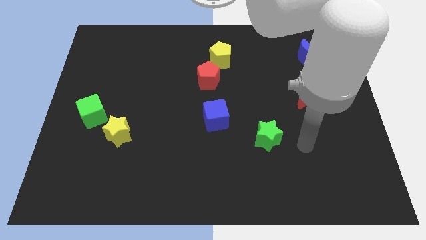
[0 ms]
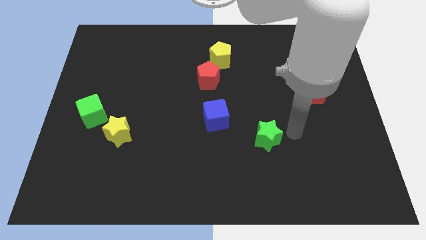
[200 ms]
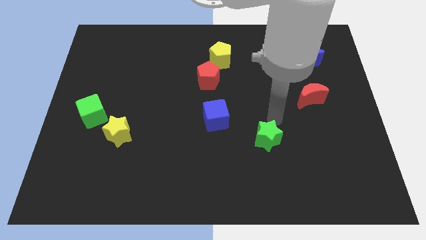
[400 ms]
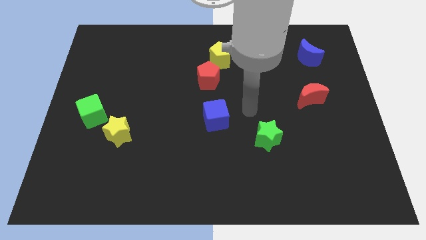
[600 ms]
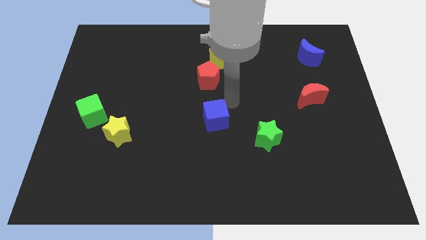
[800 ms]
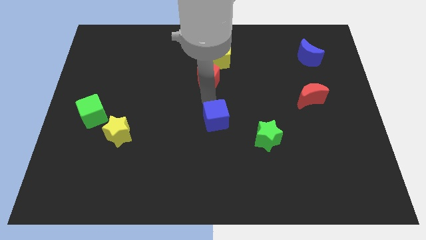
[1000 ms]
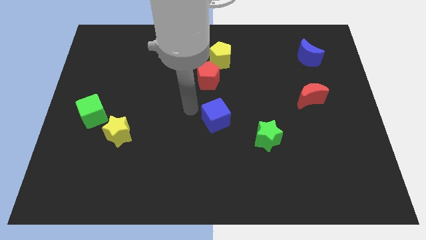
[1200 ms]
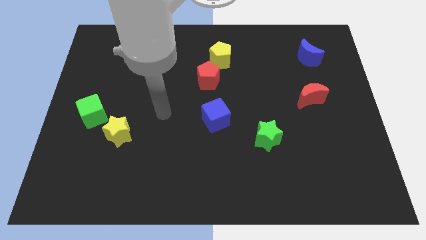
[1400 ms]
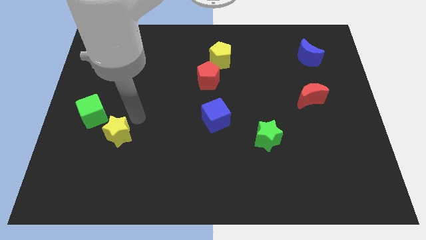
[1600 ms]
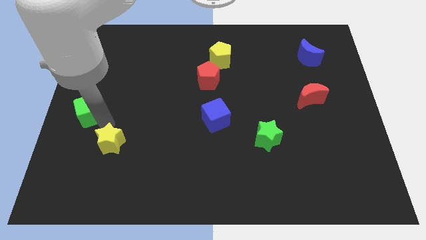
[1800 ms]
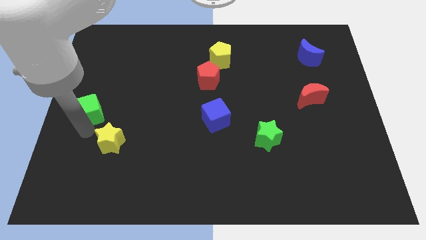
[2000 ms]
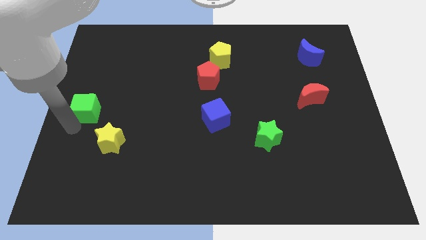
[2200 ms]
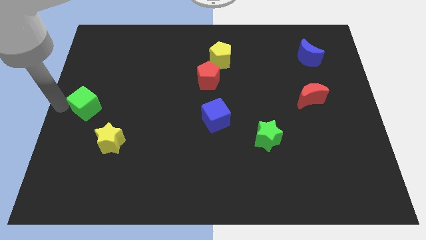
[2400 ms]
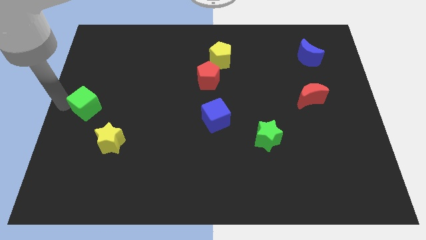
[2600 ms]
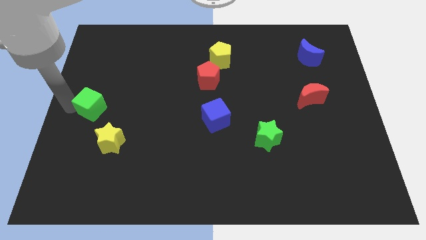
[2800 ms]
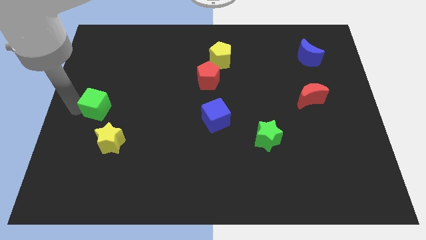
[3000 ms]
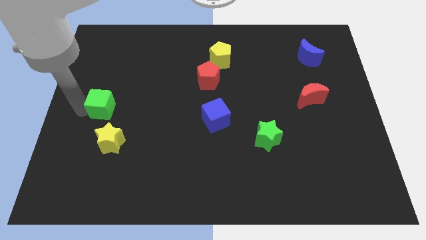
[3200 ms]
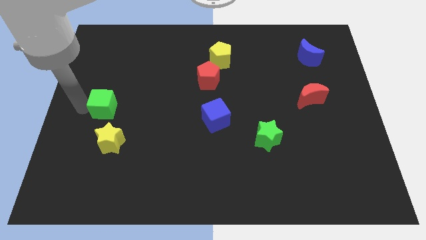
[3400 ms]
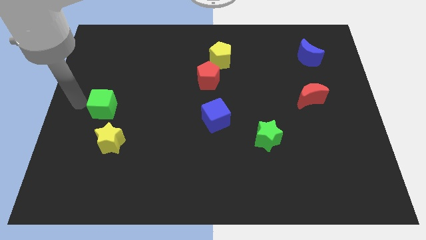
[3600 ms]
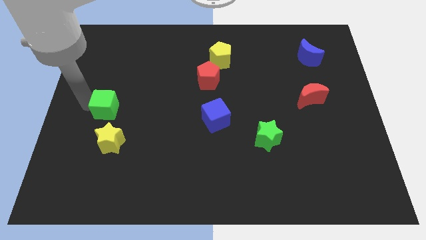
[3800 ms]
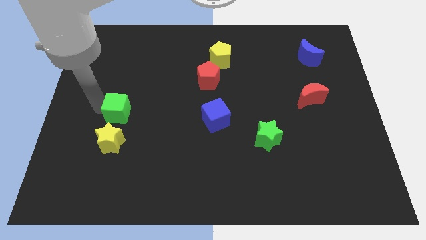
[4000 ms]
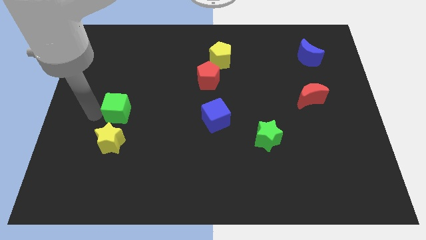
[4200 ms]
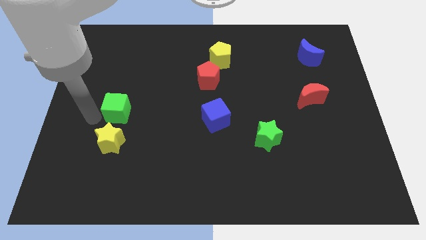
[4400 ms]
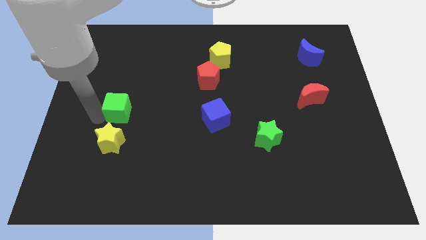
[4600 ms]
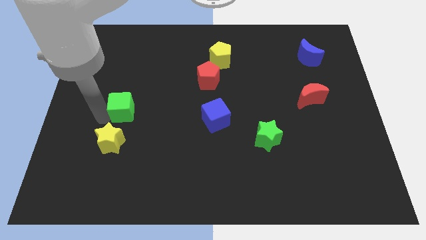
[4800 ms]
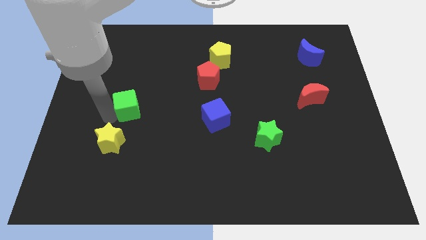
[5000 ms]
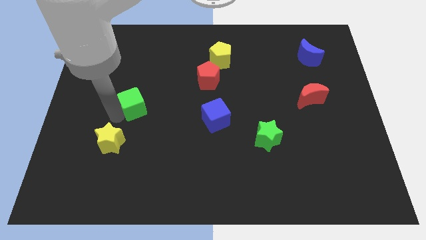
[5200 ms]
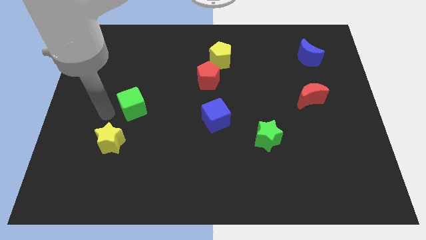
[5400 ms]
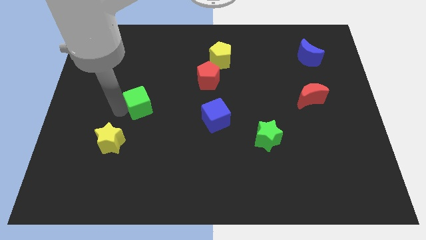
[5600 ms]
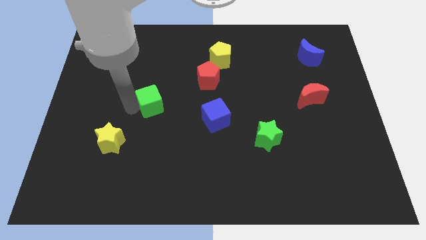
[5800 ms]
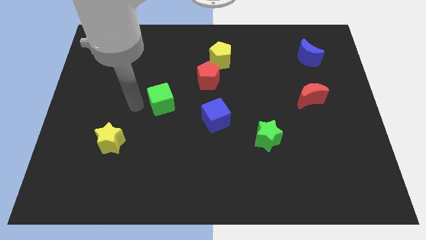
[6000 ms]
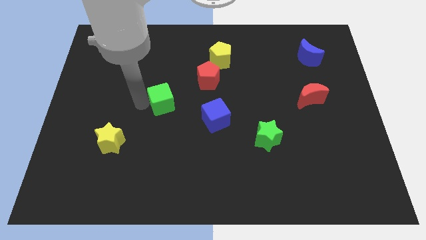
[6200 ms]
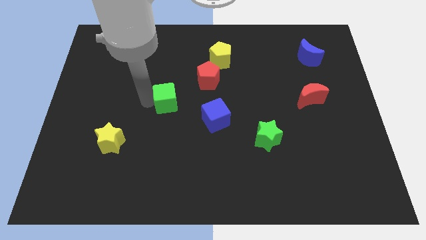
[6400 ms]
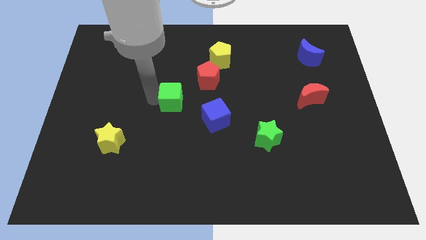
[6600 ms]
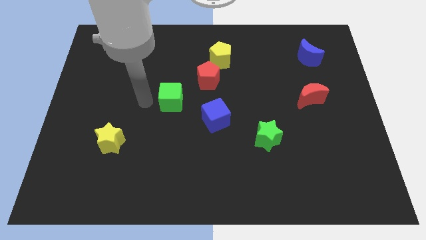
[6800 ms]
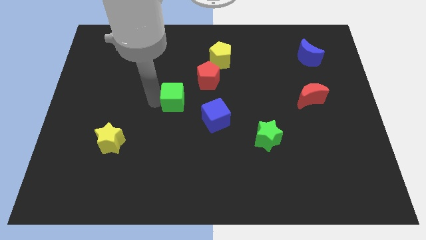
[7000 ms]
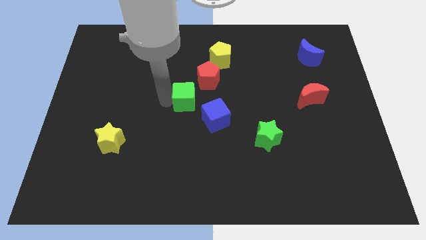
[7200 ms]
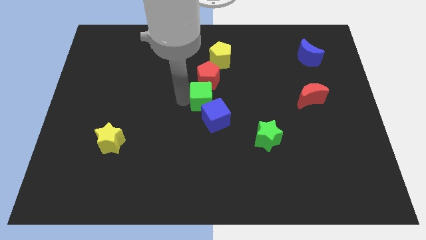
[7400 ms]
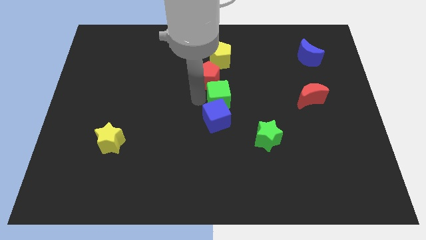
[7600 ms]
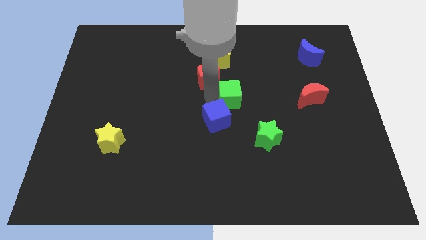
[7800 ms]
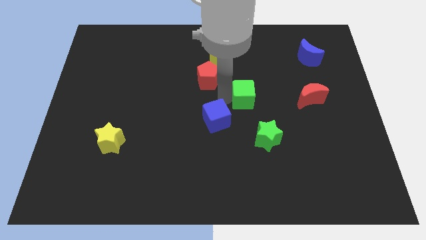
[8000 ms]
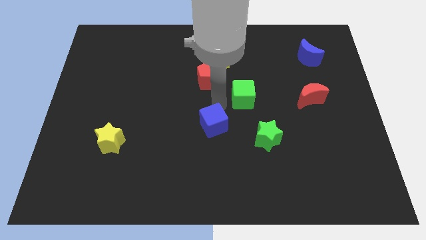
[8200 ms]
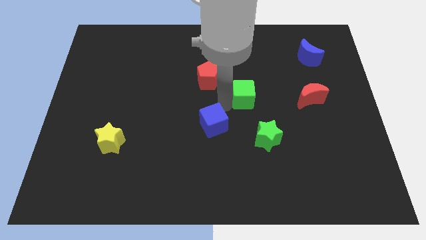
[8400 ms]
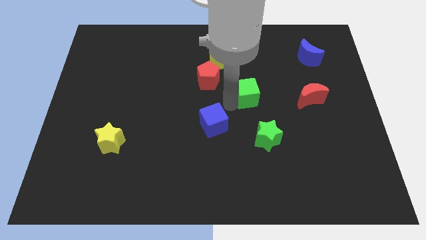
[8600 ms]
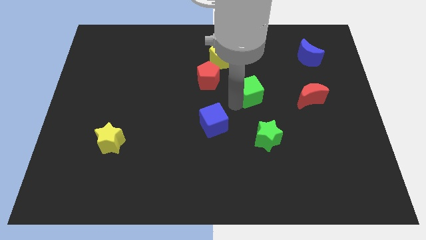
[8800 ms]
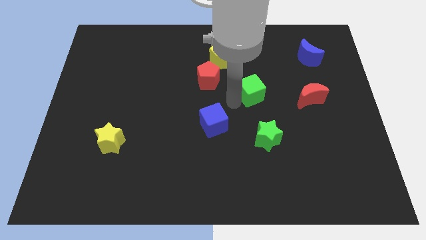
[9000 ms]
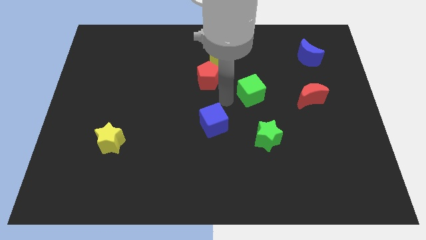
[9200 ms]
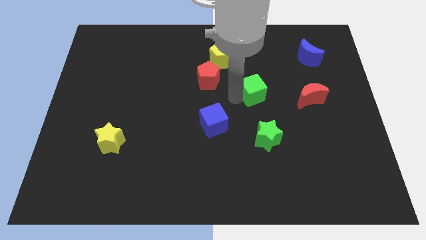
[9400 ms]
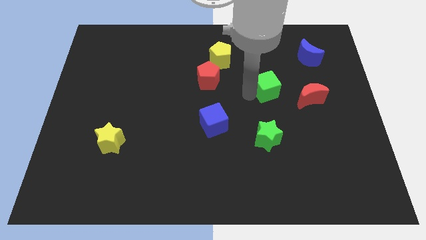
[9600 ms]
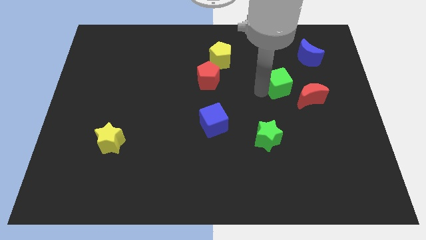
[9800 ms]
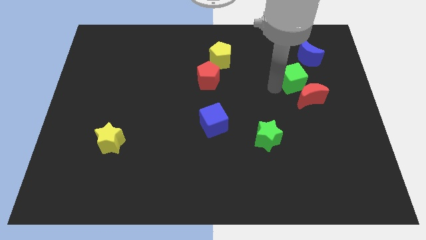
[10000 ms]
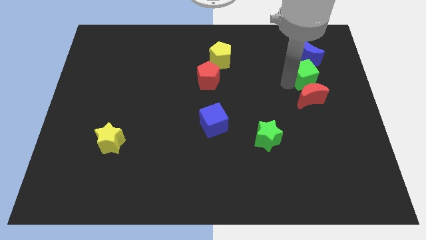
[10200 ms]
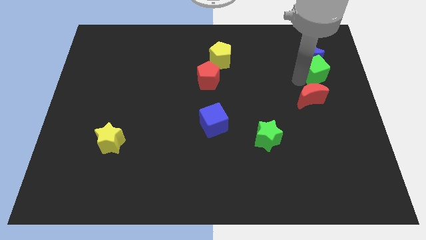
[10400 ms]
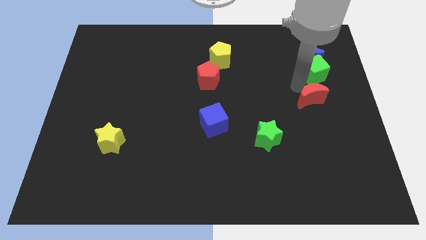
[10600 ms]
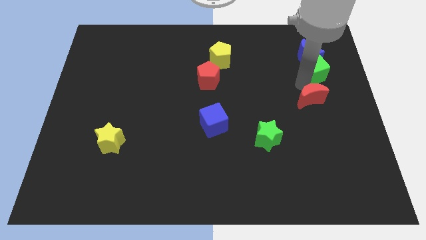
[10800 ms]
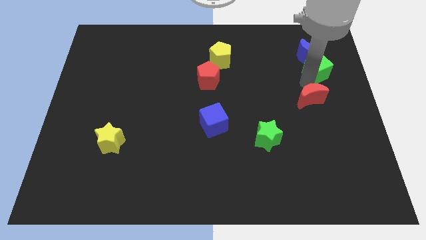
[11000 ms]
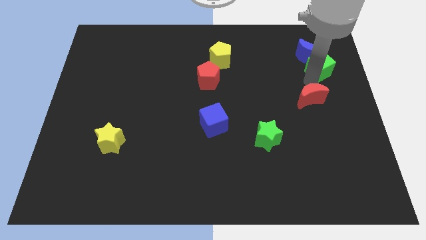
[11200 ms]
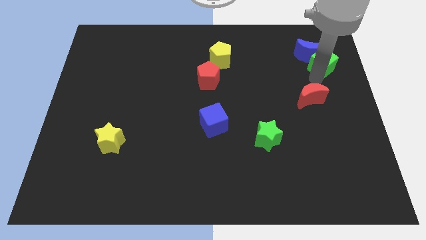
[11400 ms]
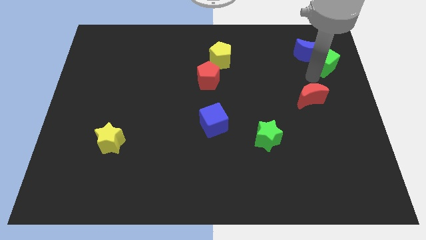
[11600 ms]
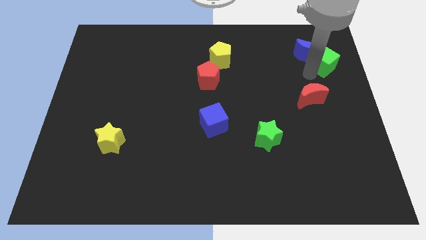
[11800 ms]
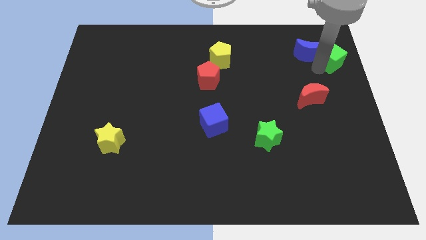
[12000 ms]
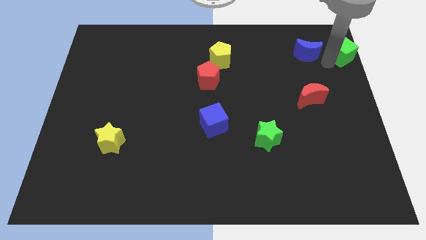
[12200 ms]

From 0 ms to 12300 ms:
move the green cube to the top right

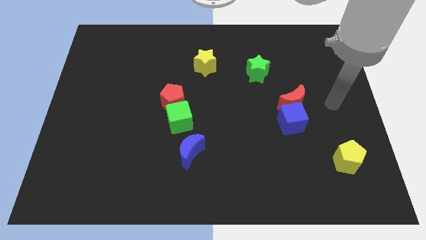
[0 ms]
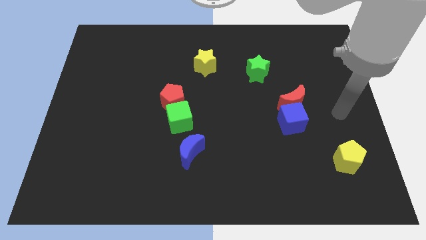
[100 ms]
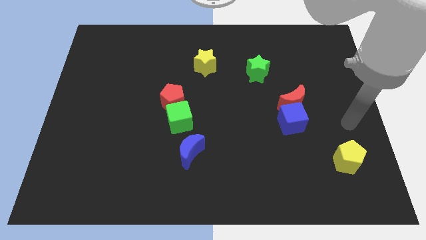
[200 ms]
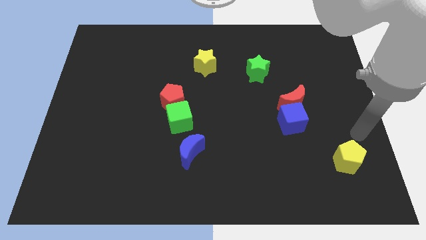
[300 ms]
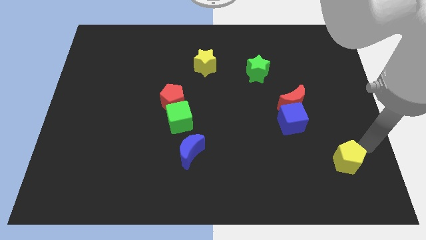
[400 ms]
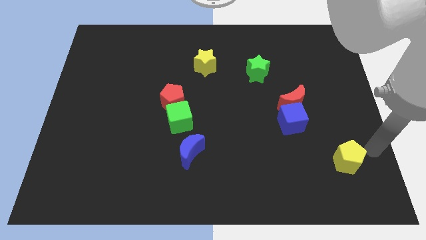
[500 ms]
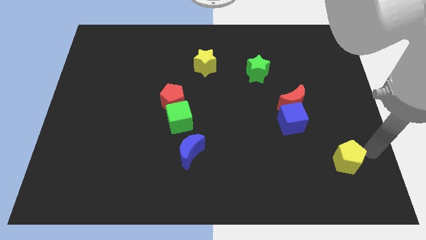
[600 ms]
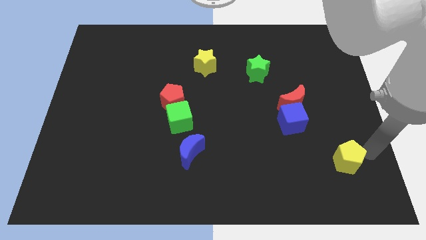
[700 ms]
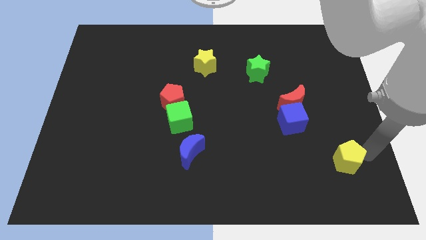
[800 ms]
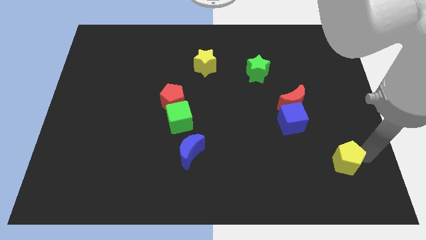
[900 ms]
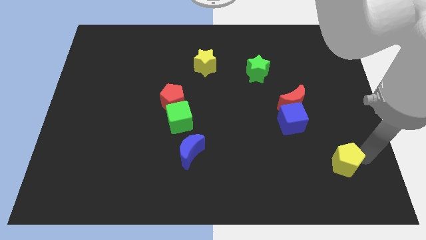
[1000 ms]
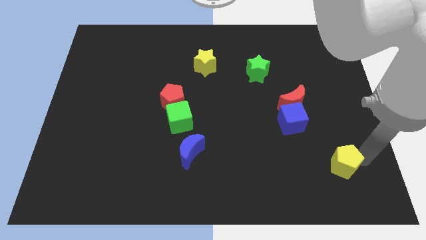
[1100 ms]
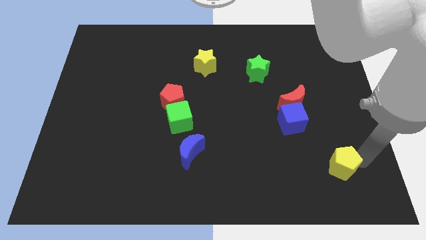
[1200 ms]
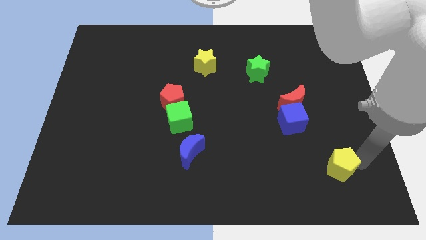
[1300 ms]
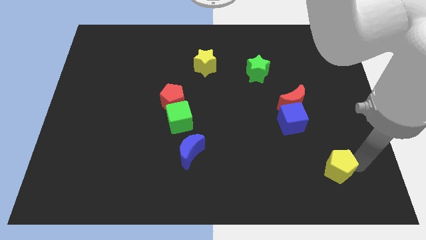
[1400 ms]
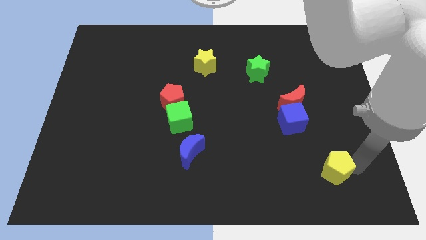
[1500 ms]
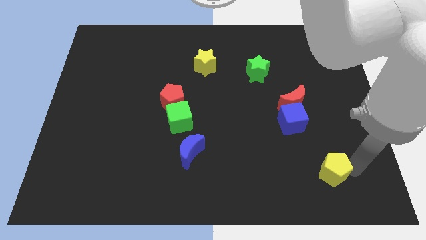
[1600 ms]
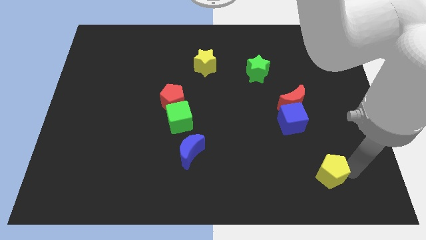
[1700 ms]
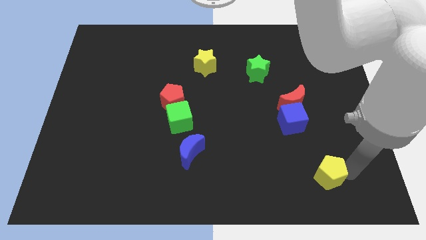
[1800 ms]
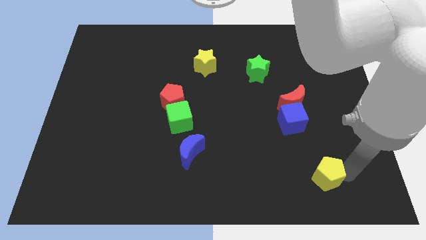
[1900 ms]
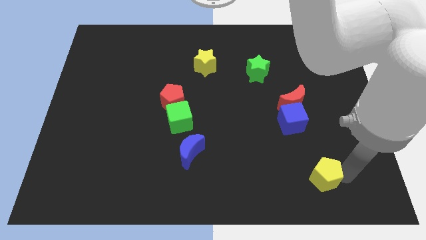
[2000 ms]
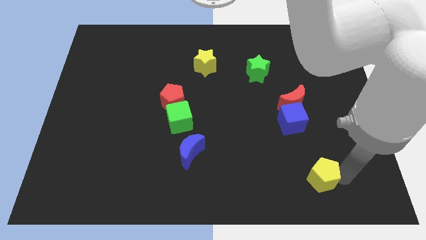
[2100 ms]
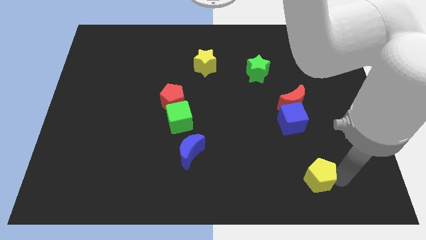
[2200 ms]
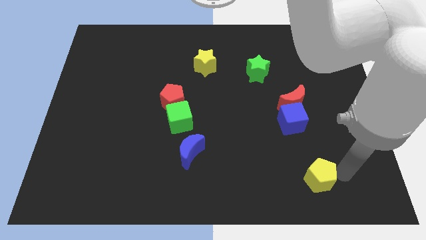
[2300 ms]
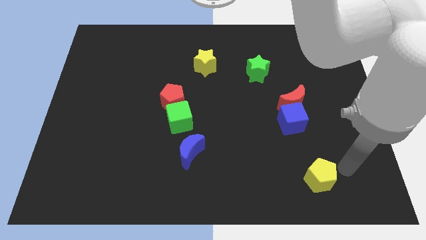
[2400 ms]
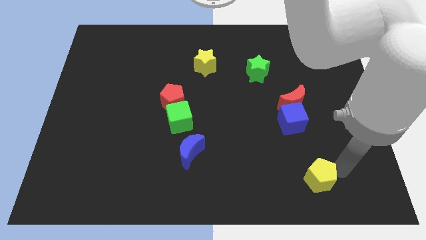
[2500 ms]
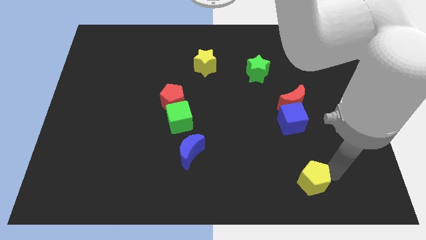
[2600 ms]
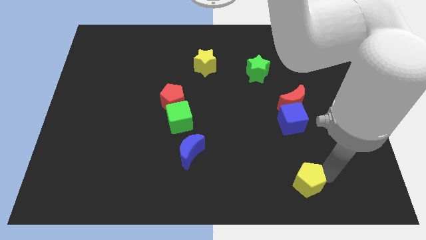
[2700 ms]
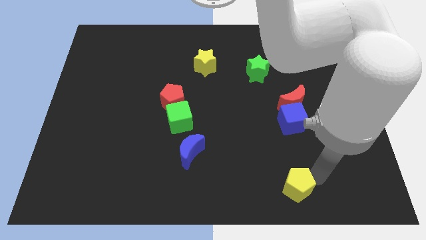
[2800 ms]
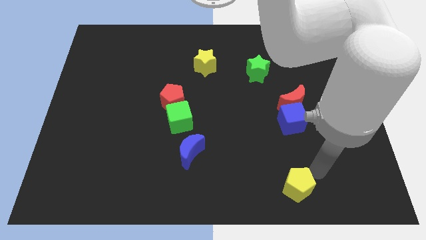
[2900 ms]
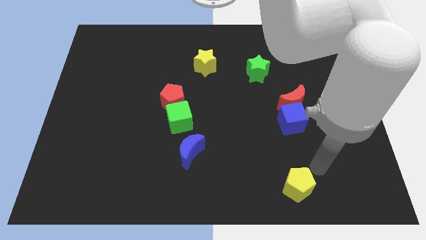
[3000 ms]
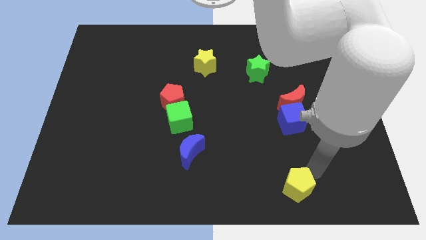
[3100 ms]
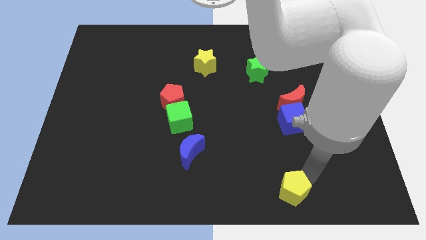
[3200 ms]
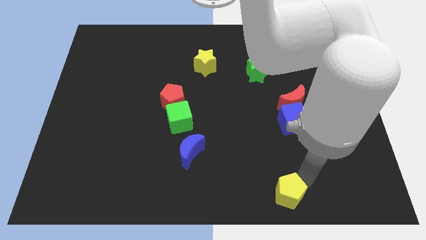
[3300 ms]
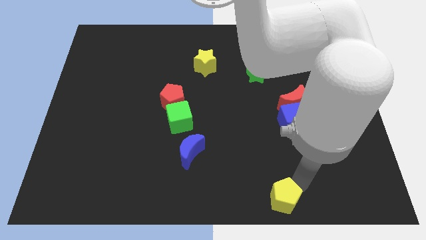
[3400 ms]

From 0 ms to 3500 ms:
push the yellow pentagon to the bottom side
